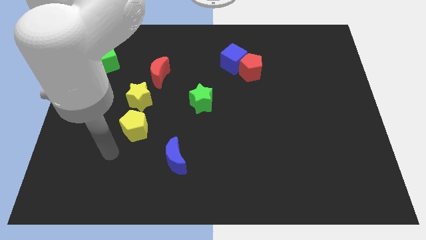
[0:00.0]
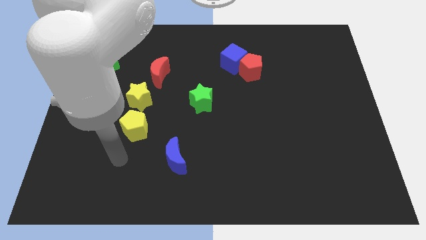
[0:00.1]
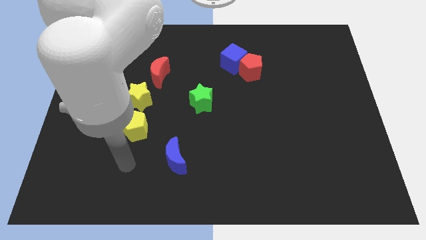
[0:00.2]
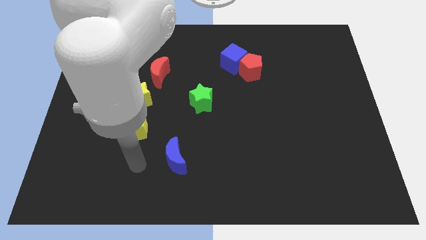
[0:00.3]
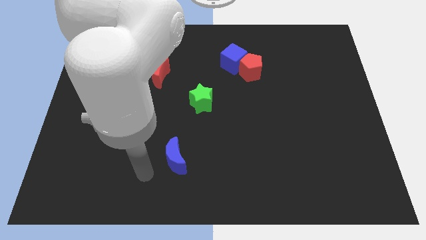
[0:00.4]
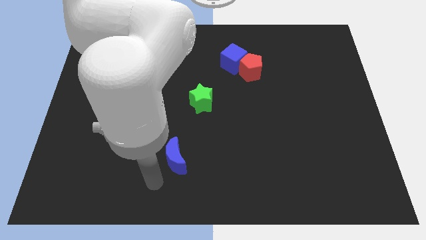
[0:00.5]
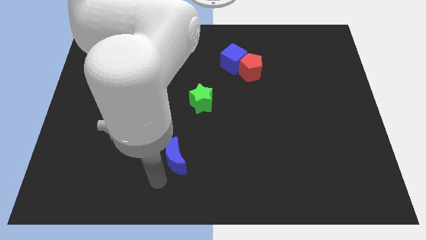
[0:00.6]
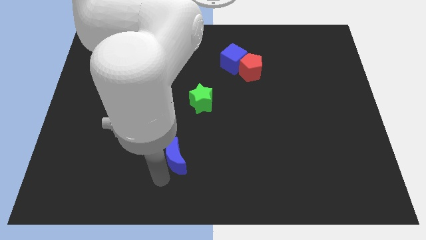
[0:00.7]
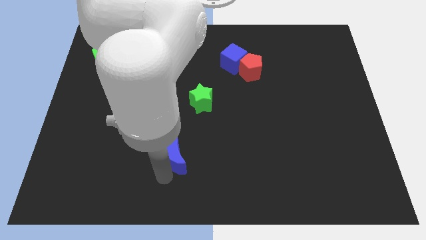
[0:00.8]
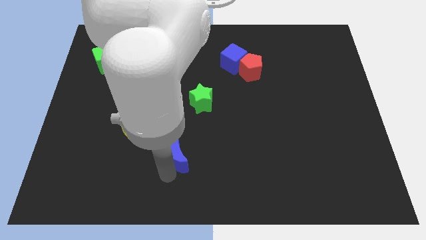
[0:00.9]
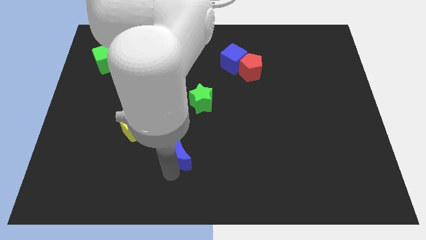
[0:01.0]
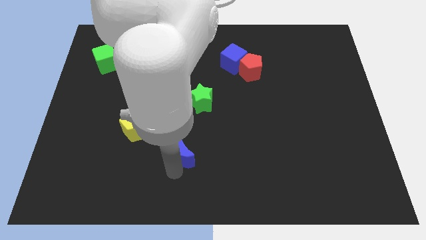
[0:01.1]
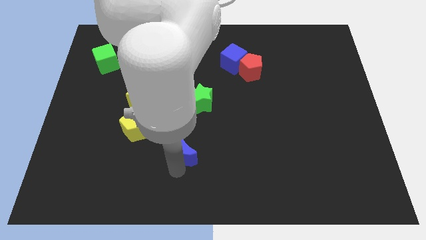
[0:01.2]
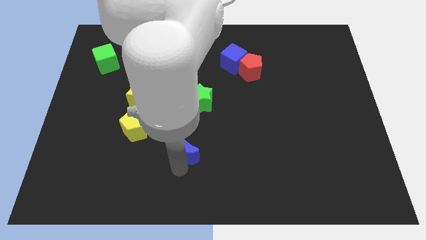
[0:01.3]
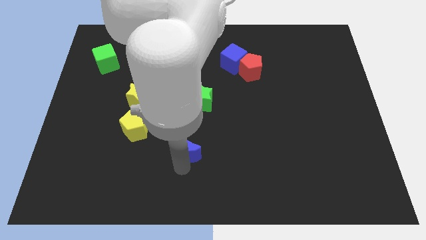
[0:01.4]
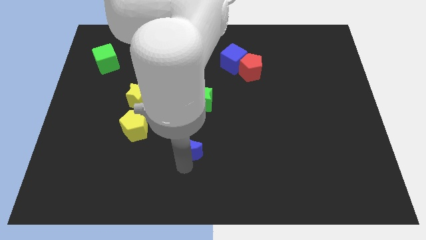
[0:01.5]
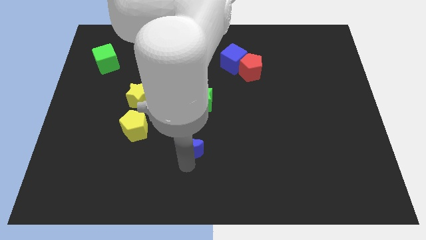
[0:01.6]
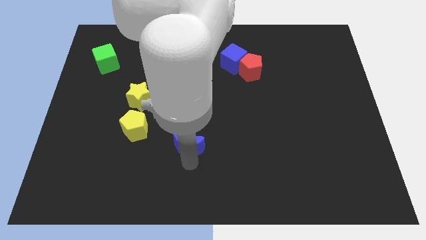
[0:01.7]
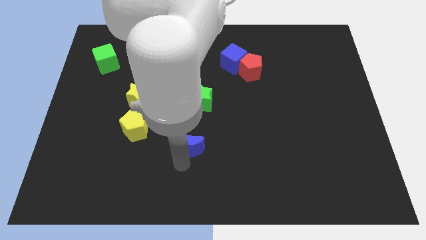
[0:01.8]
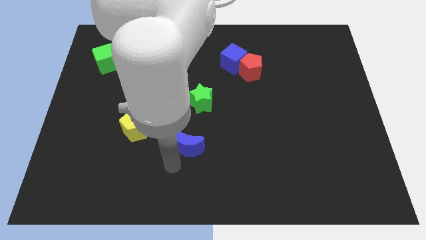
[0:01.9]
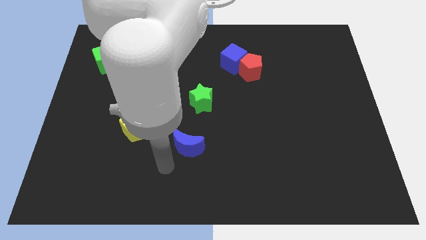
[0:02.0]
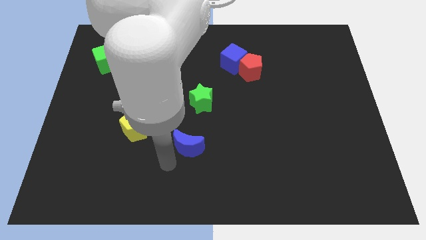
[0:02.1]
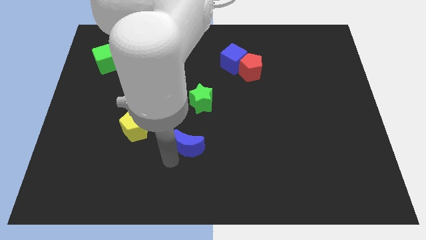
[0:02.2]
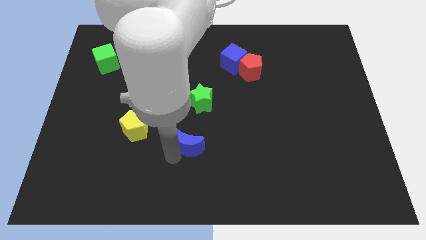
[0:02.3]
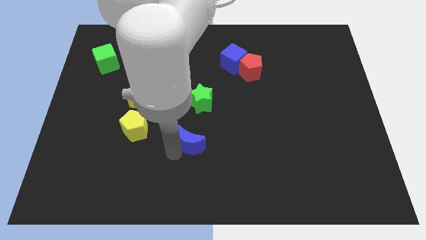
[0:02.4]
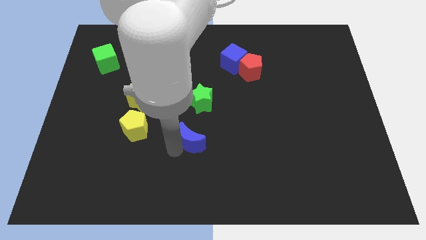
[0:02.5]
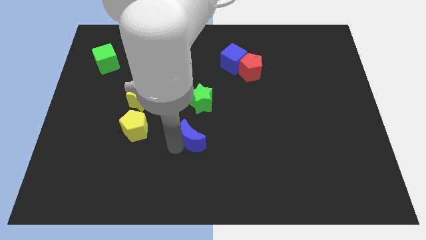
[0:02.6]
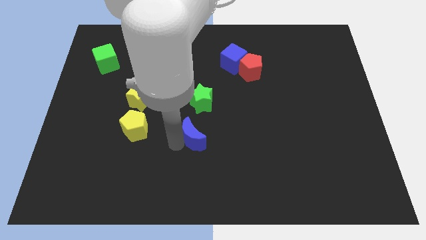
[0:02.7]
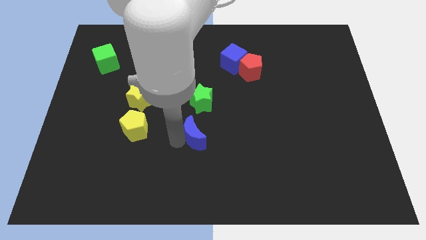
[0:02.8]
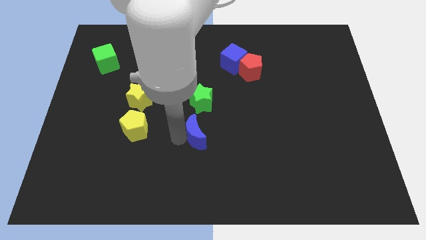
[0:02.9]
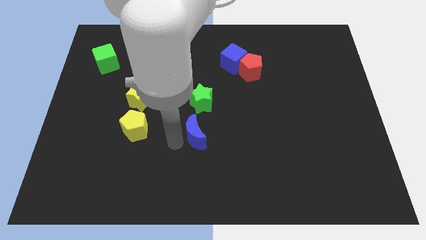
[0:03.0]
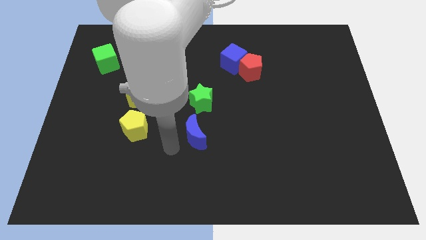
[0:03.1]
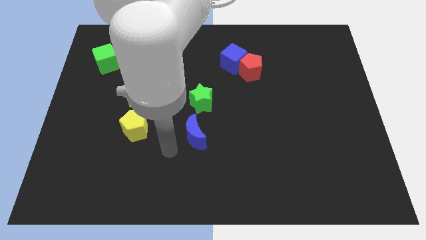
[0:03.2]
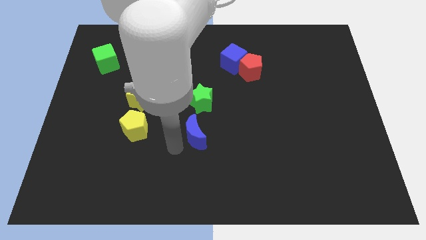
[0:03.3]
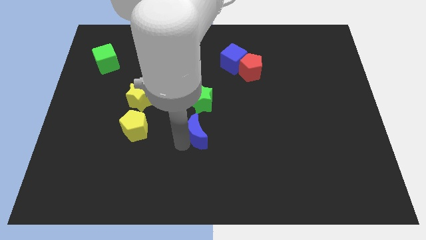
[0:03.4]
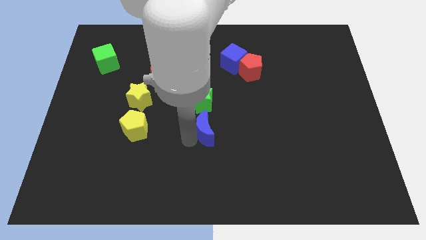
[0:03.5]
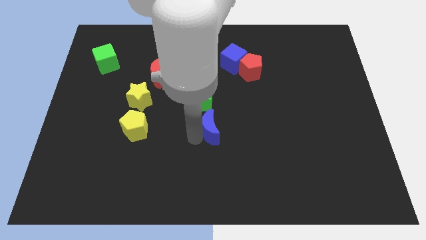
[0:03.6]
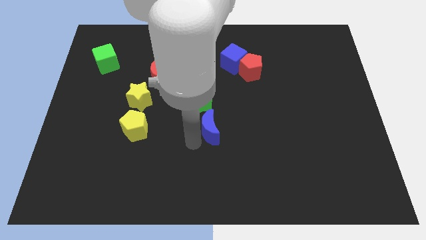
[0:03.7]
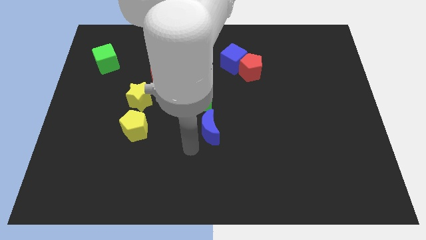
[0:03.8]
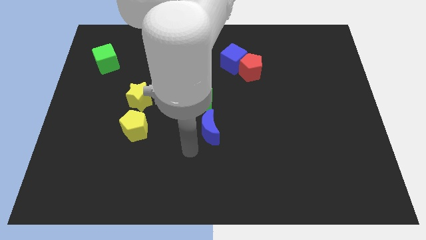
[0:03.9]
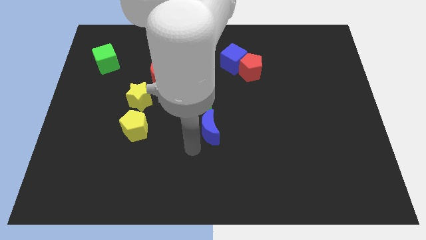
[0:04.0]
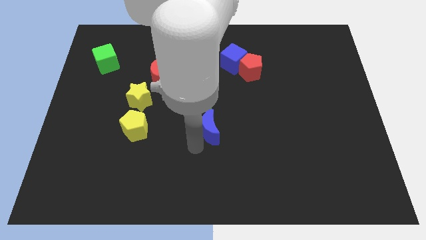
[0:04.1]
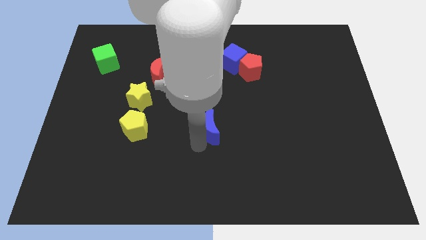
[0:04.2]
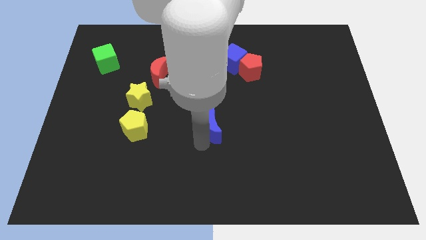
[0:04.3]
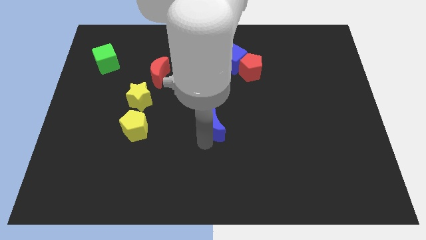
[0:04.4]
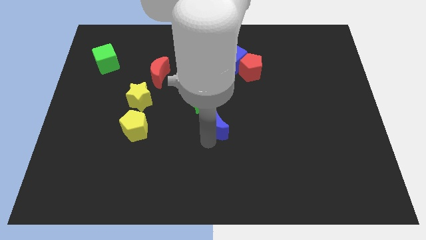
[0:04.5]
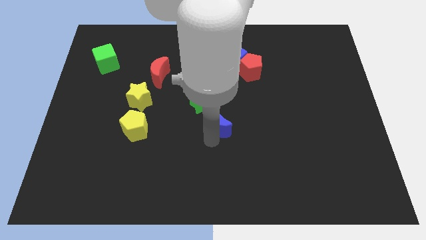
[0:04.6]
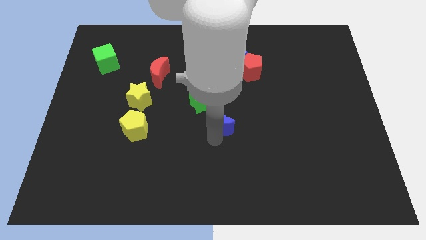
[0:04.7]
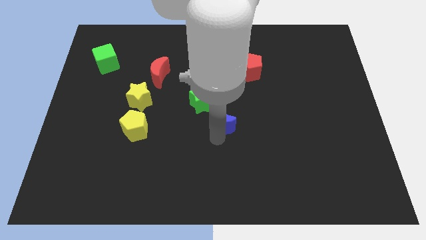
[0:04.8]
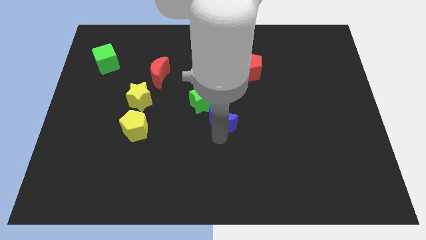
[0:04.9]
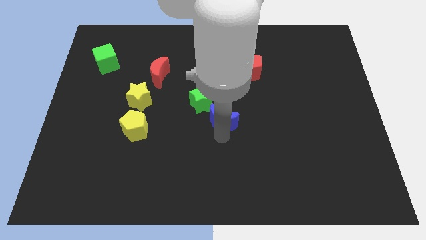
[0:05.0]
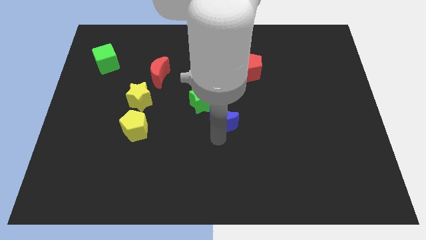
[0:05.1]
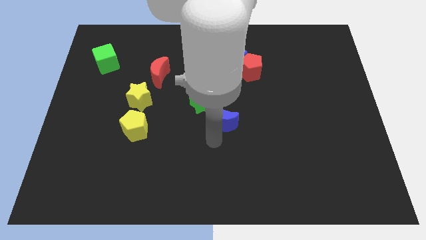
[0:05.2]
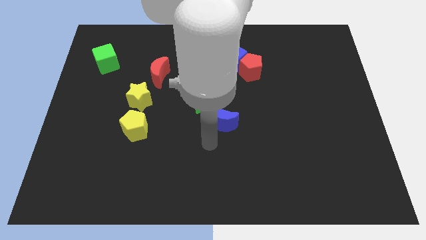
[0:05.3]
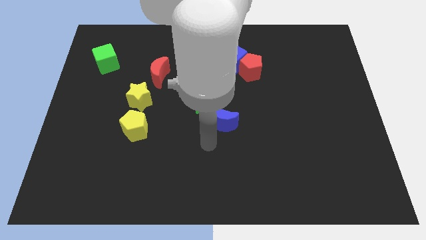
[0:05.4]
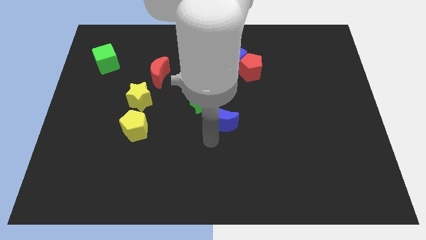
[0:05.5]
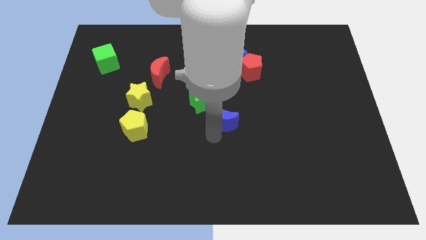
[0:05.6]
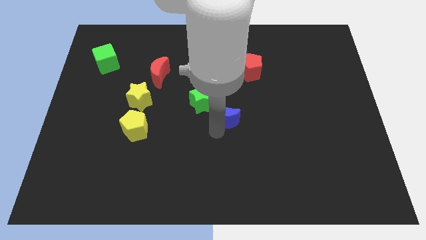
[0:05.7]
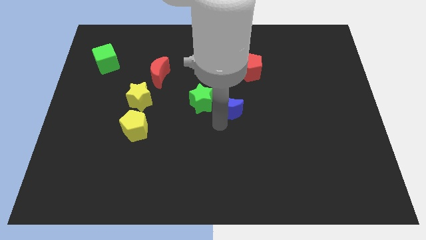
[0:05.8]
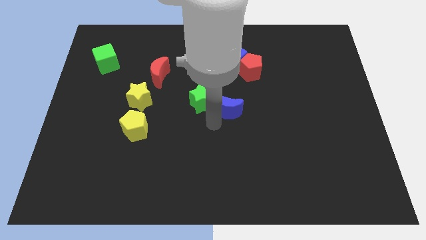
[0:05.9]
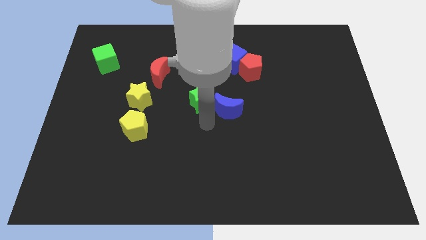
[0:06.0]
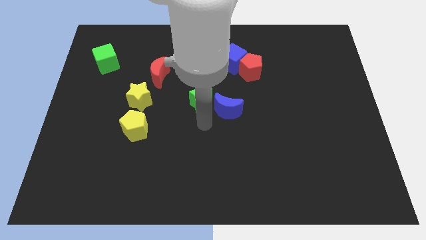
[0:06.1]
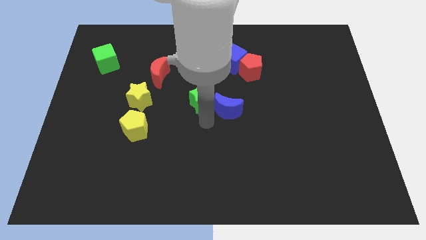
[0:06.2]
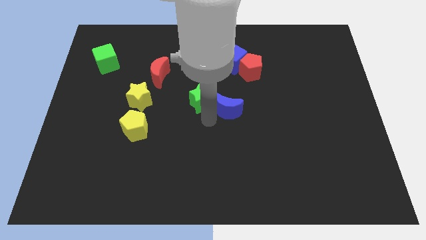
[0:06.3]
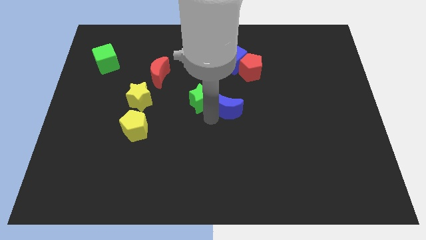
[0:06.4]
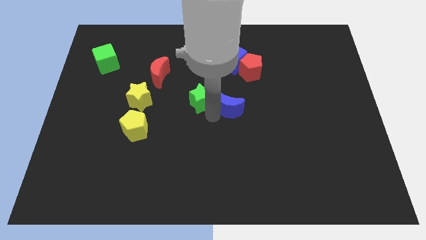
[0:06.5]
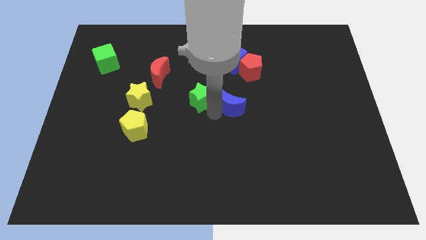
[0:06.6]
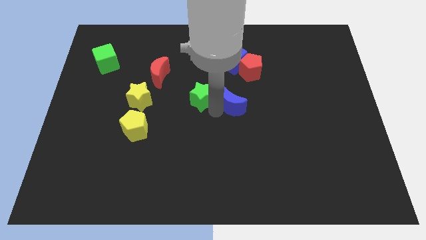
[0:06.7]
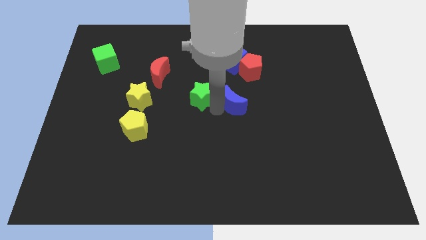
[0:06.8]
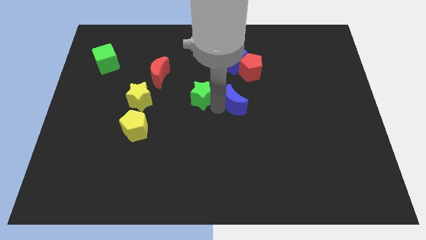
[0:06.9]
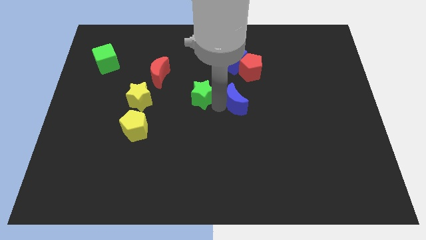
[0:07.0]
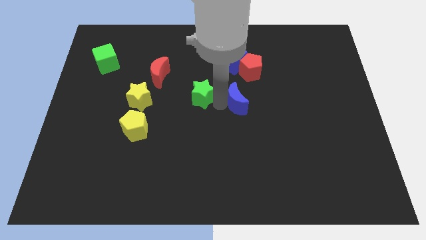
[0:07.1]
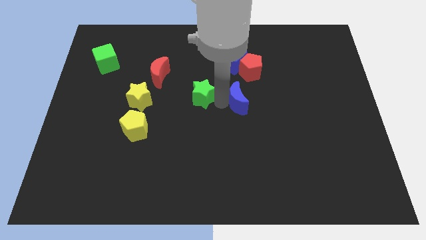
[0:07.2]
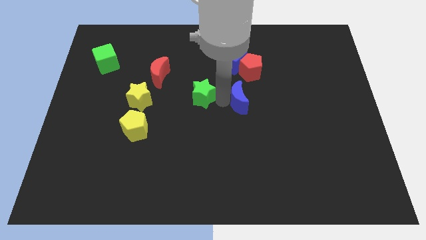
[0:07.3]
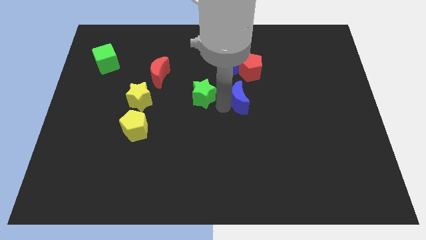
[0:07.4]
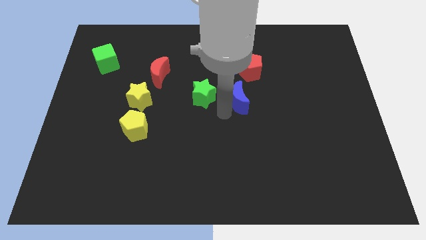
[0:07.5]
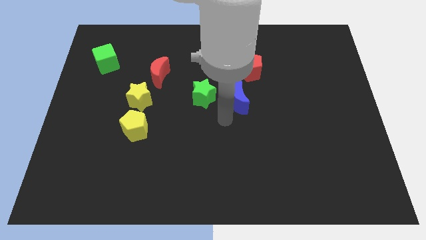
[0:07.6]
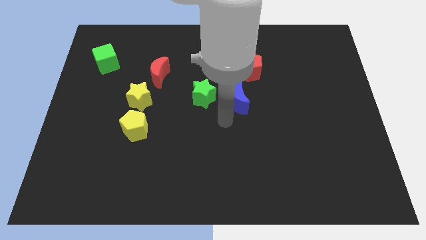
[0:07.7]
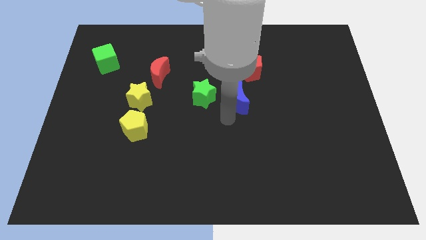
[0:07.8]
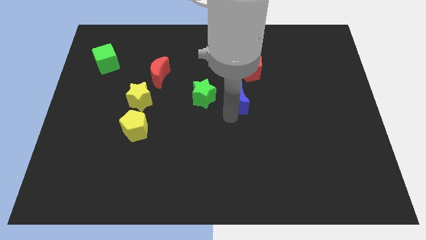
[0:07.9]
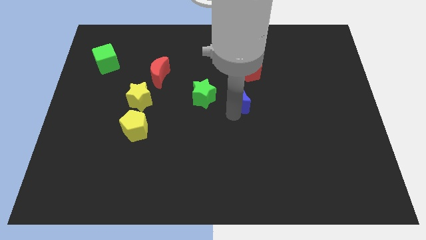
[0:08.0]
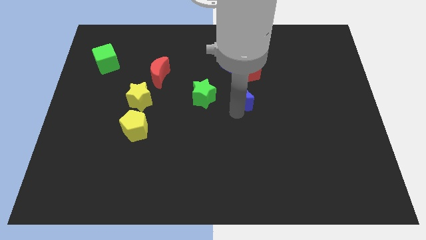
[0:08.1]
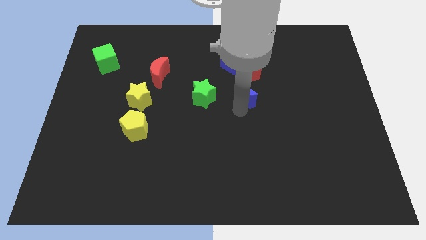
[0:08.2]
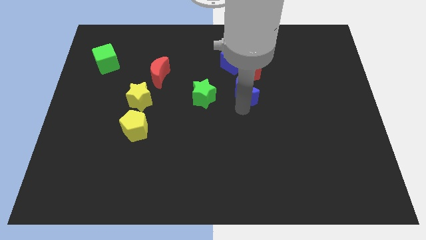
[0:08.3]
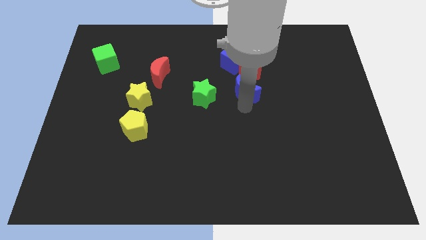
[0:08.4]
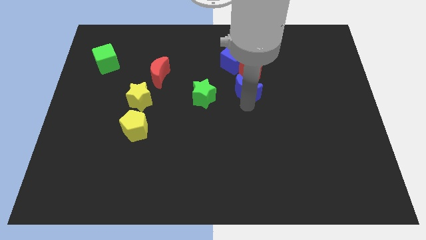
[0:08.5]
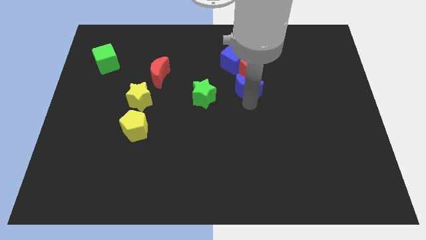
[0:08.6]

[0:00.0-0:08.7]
move the blue moon to the bottom right of the blue cube
